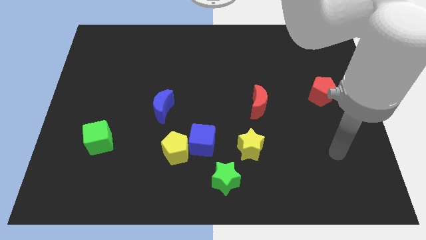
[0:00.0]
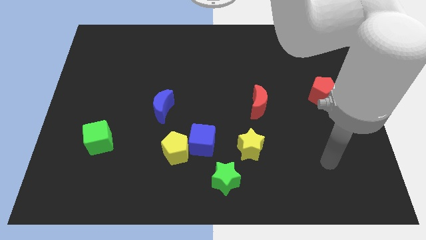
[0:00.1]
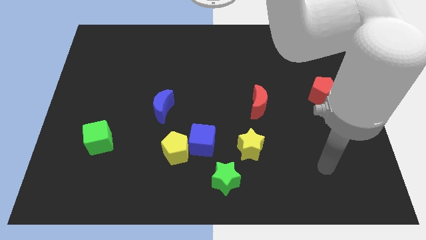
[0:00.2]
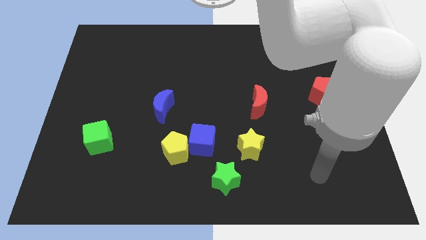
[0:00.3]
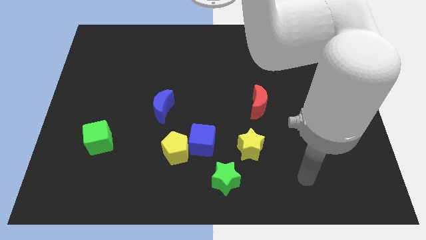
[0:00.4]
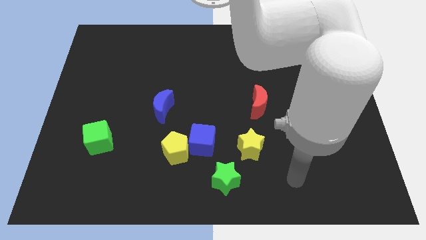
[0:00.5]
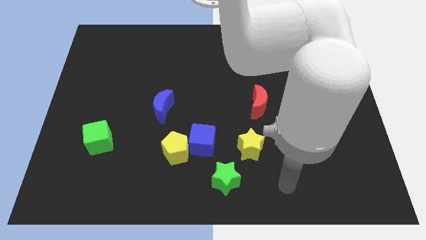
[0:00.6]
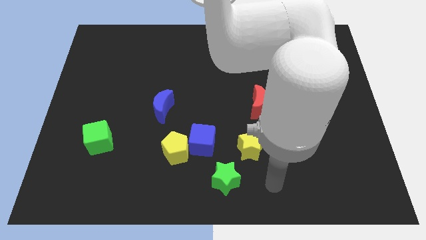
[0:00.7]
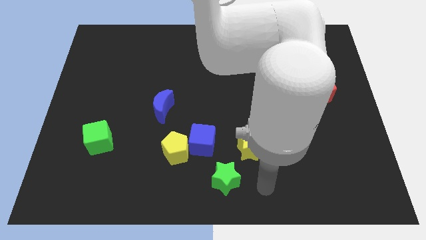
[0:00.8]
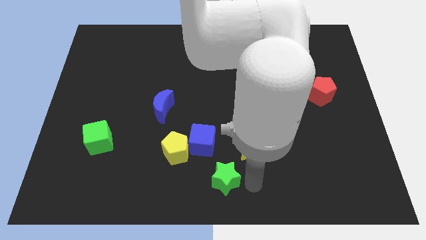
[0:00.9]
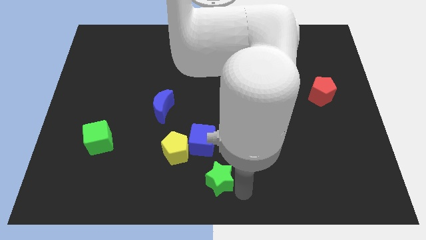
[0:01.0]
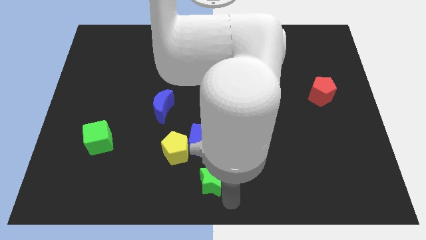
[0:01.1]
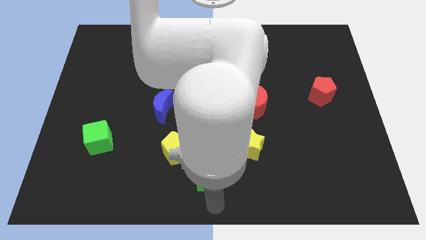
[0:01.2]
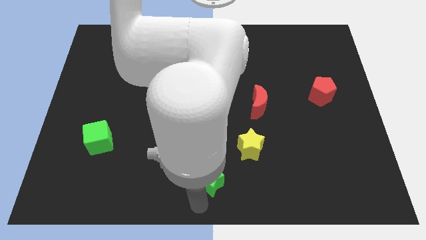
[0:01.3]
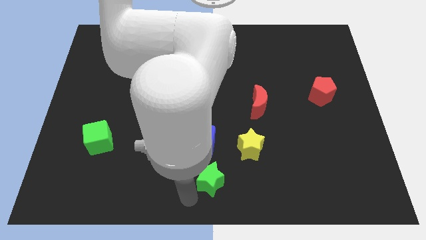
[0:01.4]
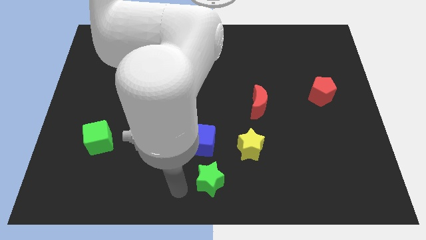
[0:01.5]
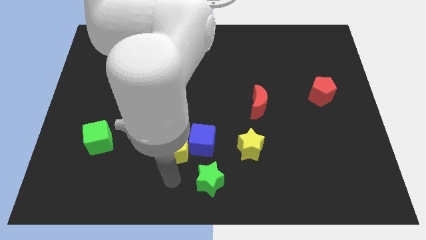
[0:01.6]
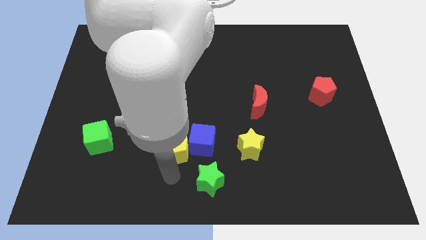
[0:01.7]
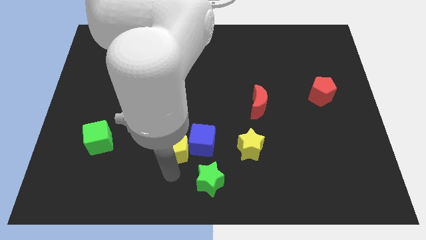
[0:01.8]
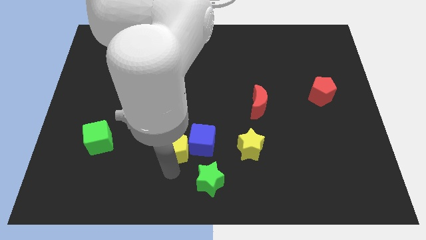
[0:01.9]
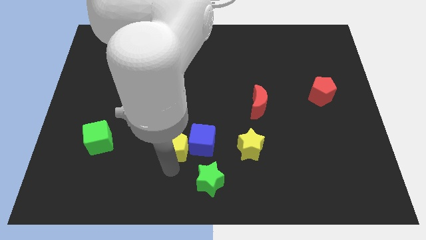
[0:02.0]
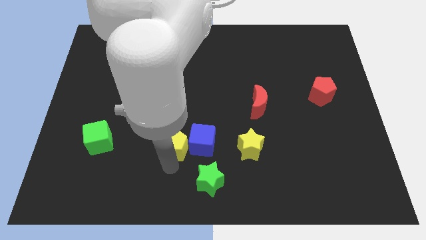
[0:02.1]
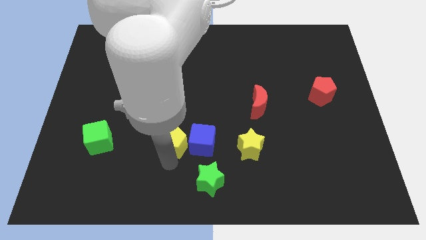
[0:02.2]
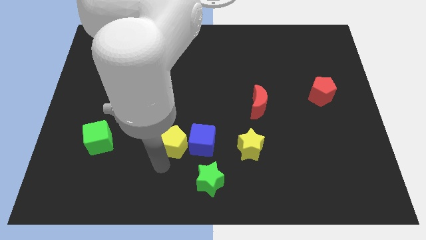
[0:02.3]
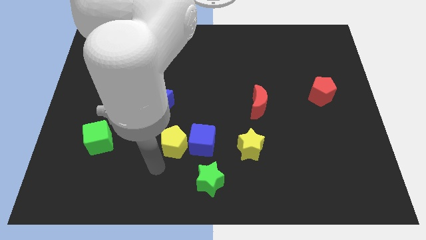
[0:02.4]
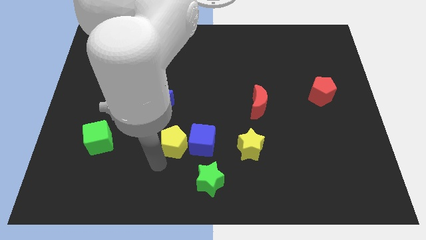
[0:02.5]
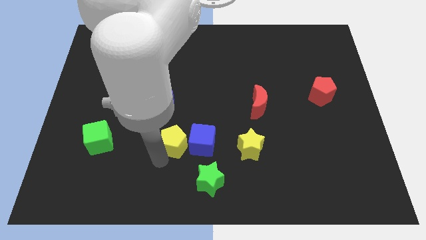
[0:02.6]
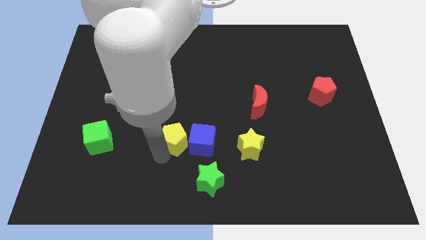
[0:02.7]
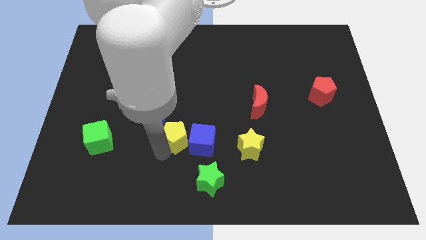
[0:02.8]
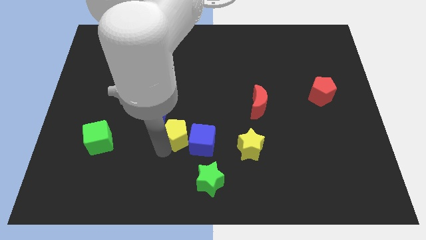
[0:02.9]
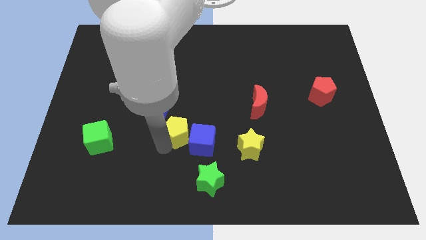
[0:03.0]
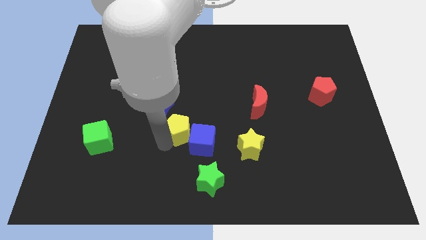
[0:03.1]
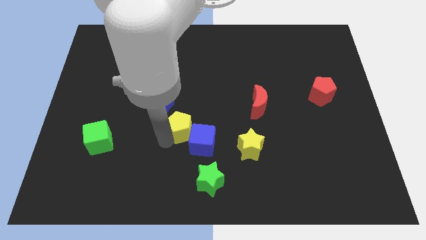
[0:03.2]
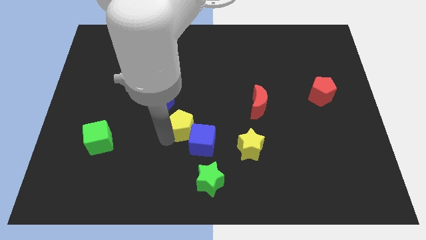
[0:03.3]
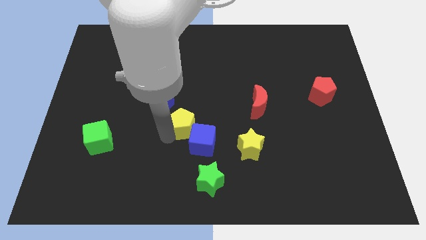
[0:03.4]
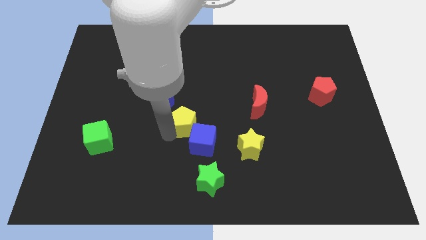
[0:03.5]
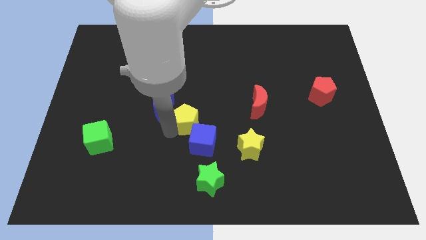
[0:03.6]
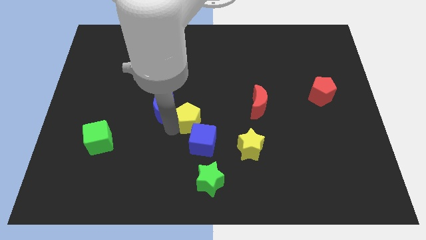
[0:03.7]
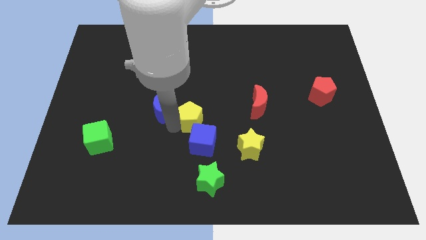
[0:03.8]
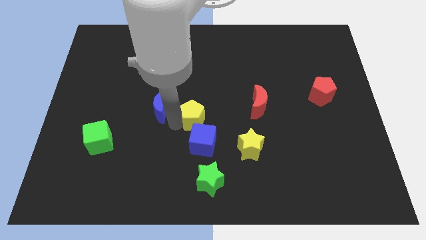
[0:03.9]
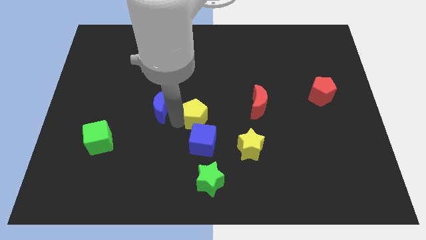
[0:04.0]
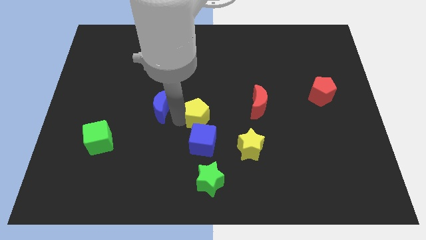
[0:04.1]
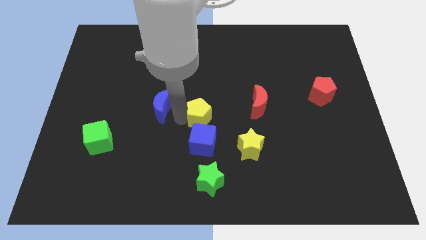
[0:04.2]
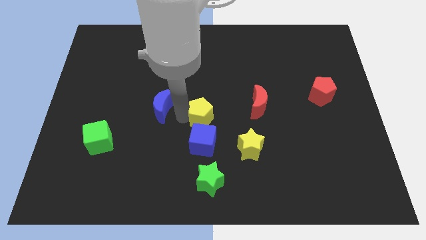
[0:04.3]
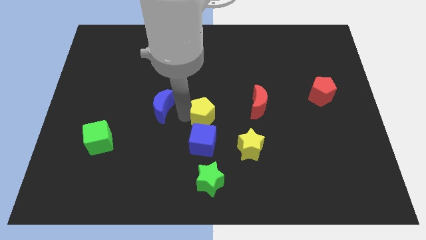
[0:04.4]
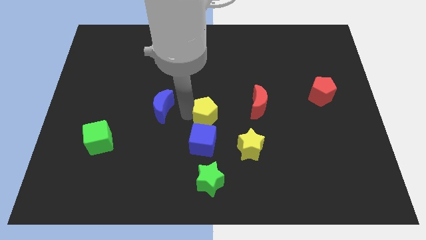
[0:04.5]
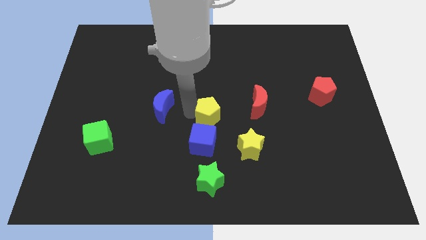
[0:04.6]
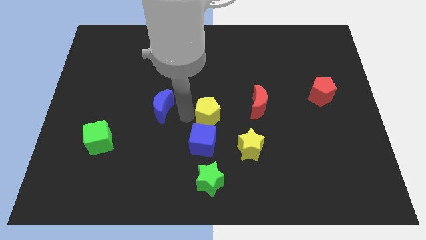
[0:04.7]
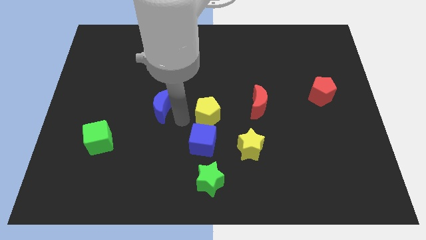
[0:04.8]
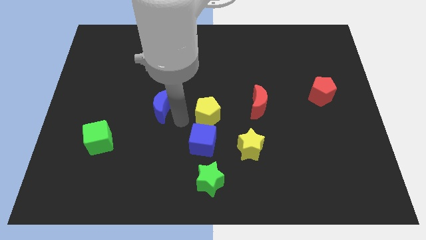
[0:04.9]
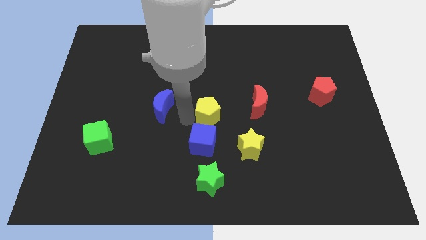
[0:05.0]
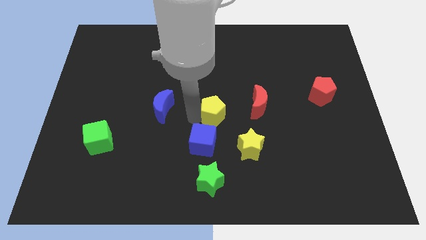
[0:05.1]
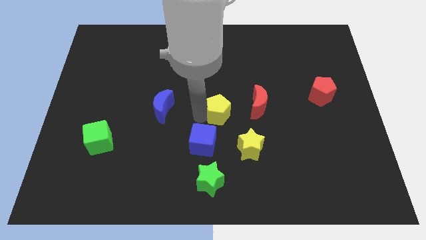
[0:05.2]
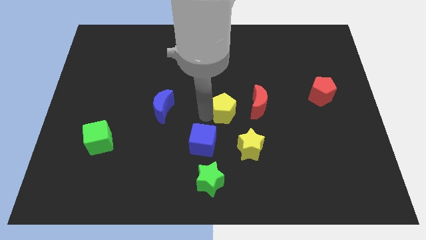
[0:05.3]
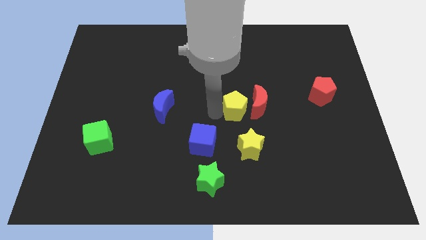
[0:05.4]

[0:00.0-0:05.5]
push the yellow pentagon close to the red moon

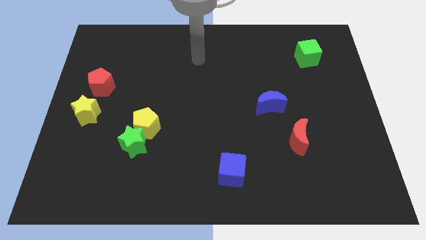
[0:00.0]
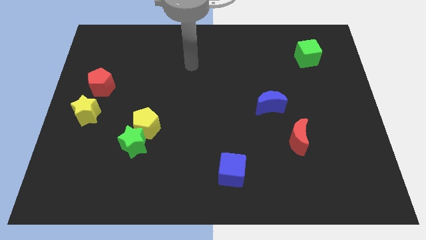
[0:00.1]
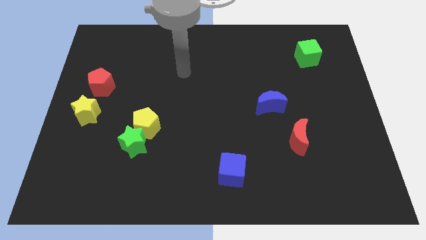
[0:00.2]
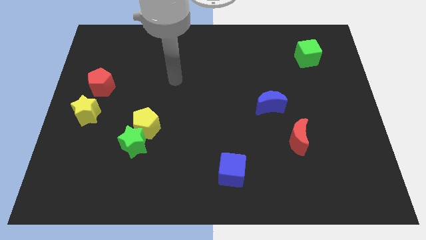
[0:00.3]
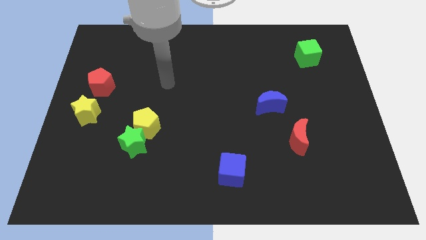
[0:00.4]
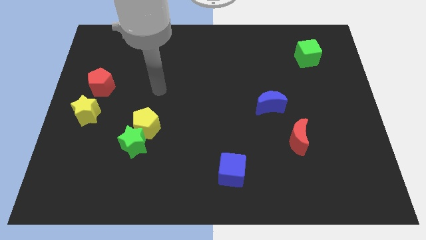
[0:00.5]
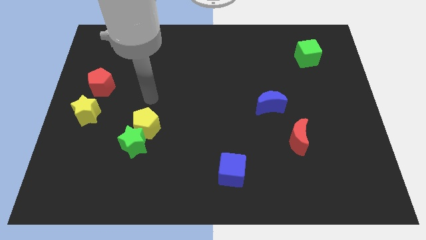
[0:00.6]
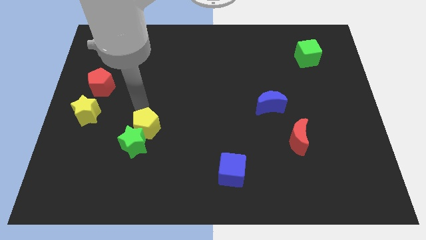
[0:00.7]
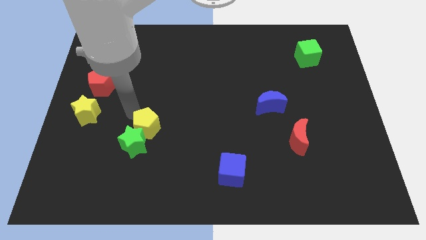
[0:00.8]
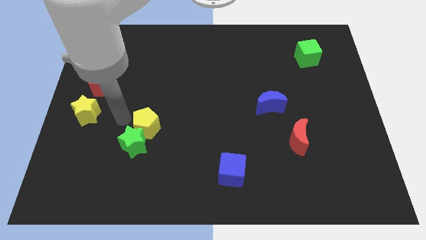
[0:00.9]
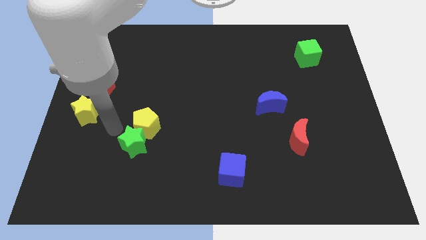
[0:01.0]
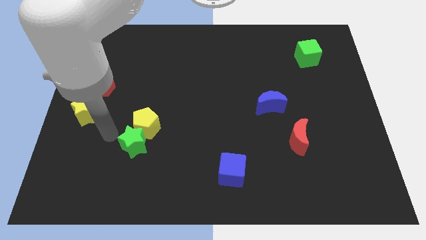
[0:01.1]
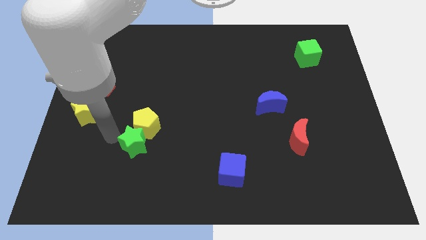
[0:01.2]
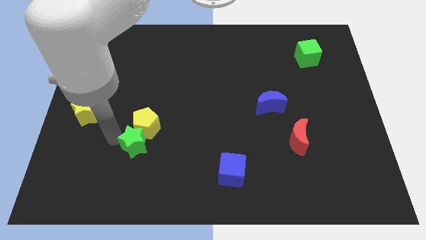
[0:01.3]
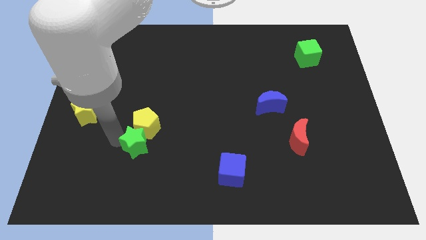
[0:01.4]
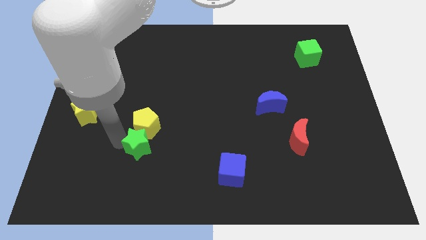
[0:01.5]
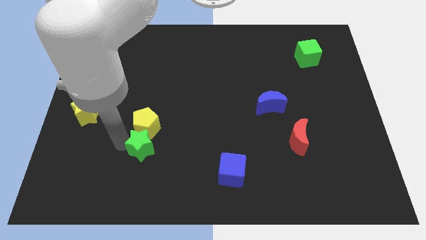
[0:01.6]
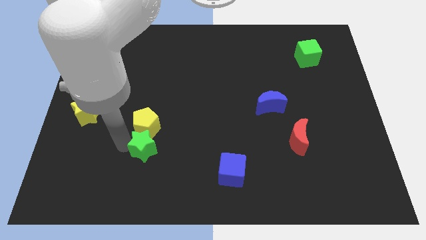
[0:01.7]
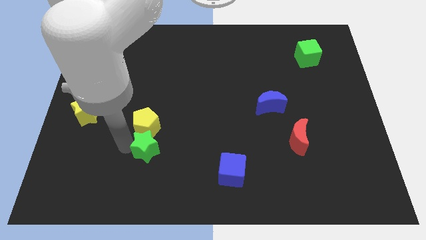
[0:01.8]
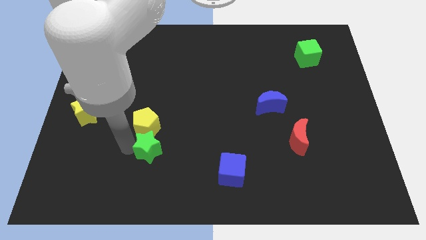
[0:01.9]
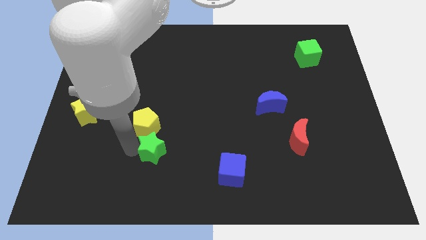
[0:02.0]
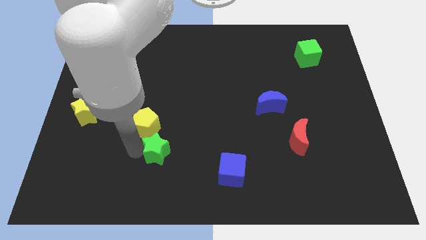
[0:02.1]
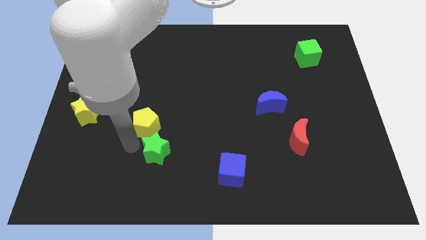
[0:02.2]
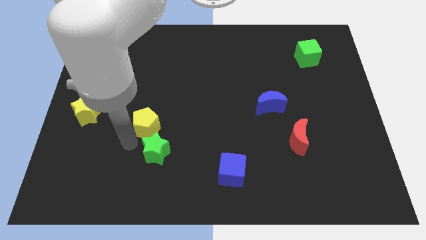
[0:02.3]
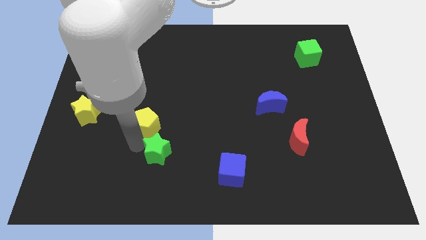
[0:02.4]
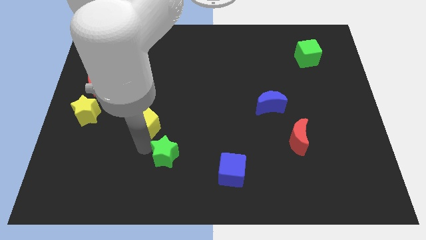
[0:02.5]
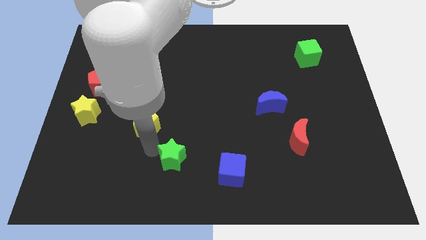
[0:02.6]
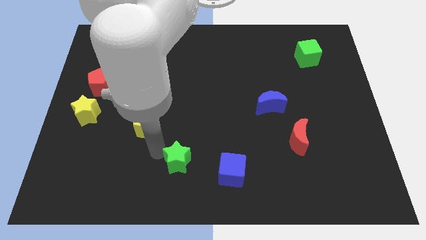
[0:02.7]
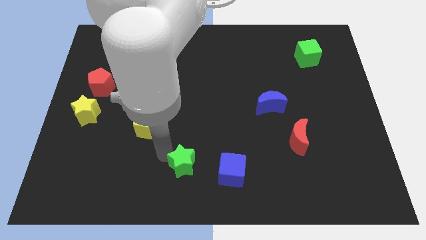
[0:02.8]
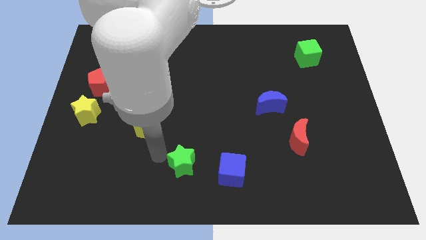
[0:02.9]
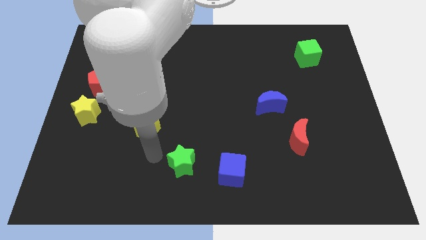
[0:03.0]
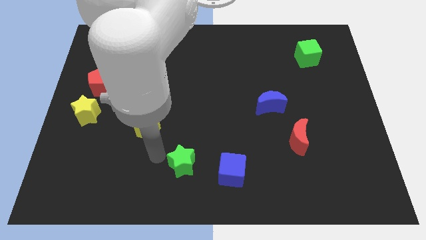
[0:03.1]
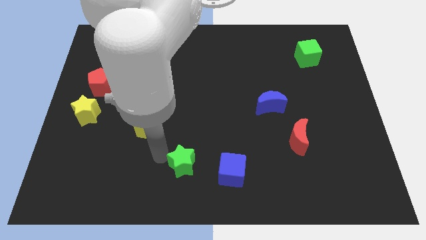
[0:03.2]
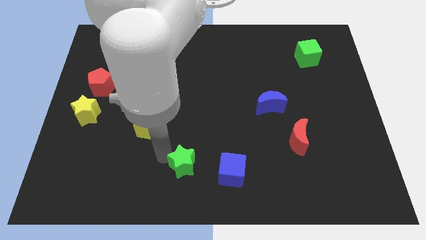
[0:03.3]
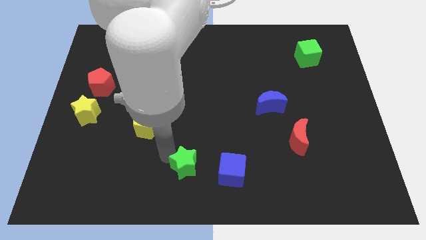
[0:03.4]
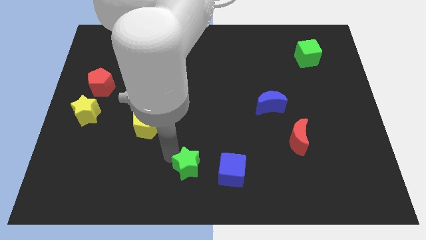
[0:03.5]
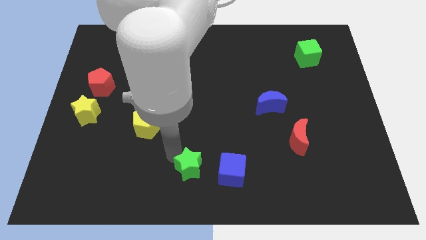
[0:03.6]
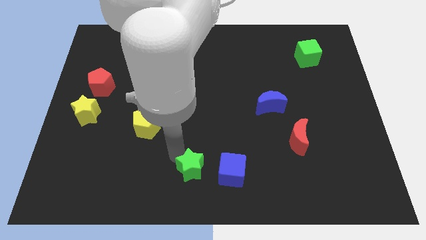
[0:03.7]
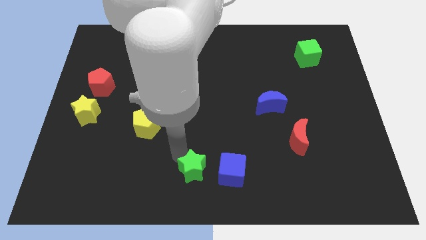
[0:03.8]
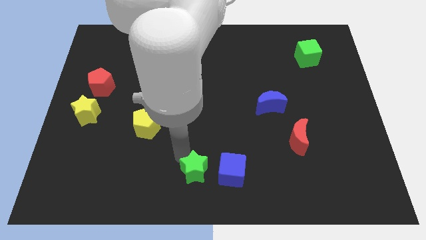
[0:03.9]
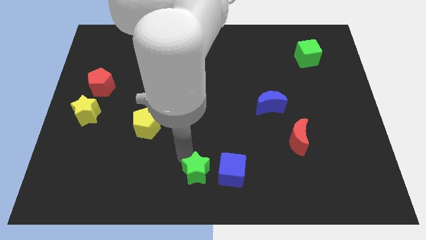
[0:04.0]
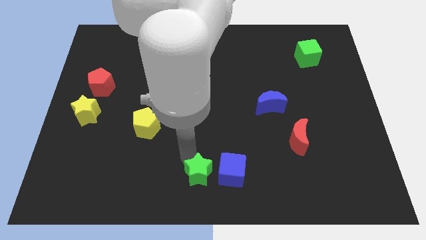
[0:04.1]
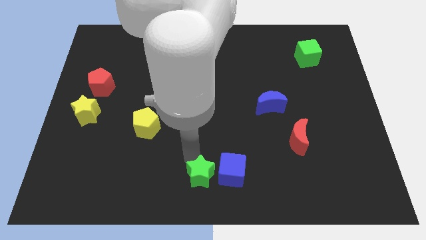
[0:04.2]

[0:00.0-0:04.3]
push the green star close to the blue cube
